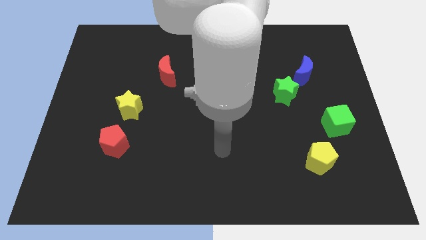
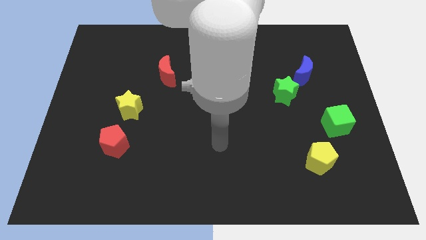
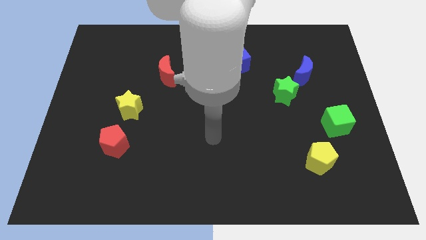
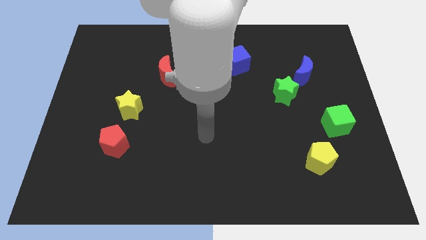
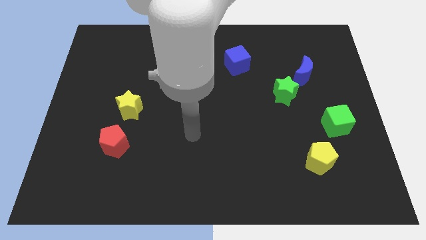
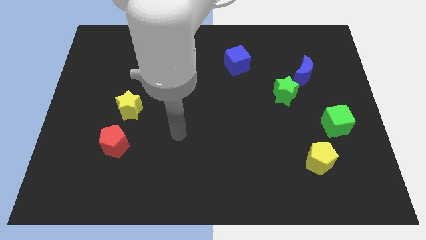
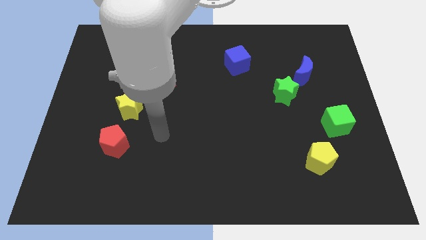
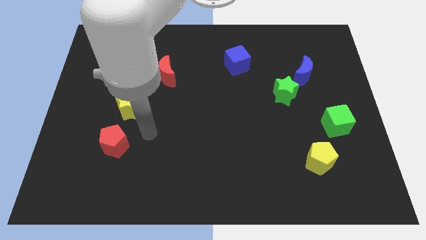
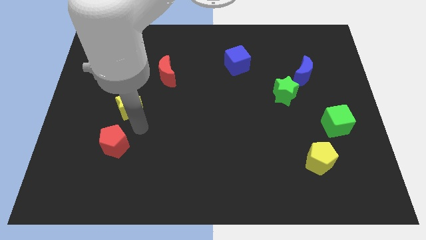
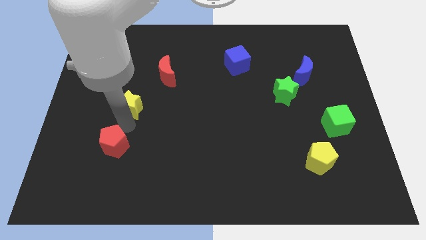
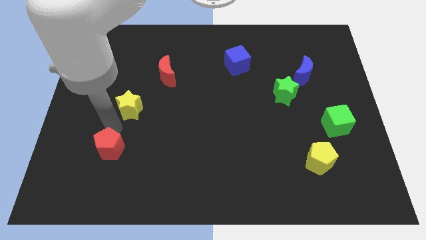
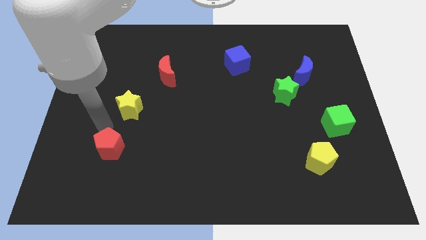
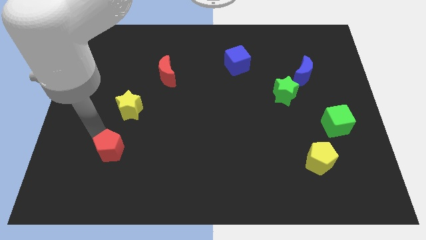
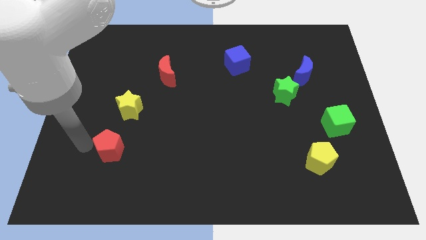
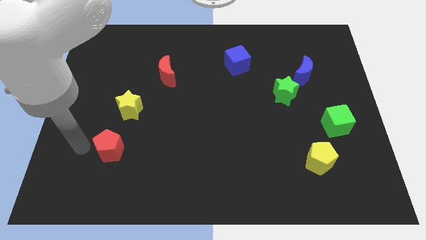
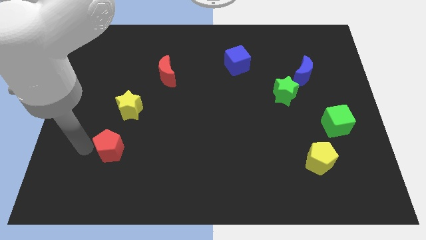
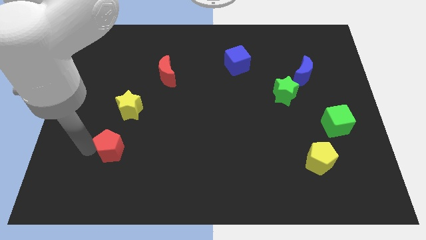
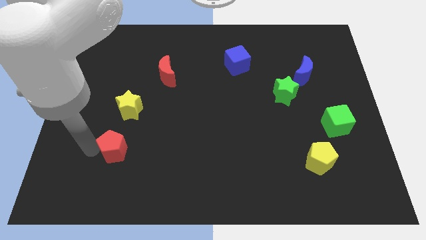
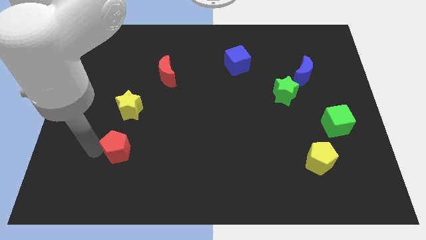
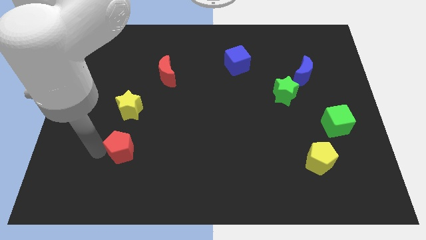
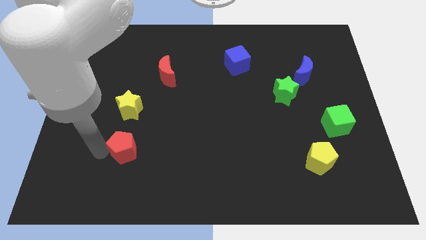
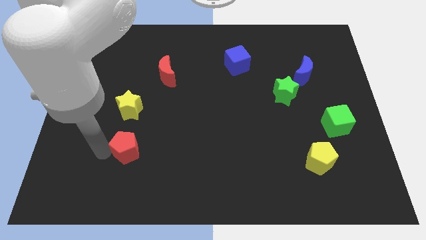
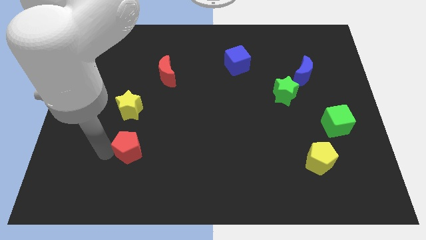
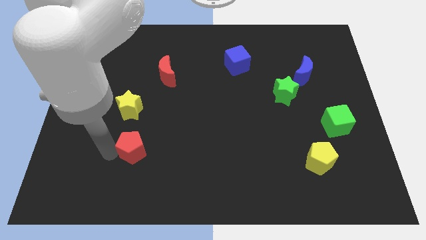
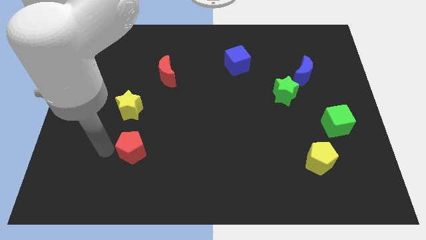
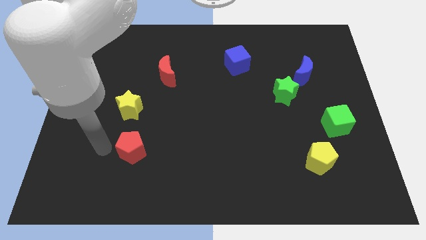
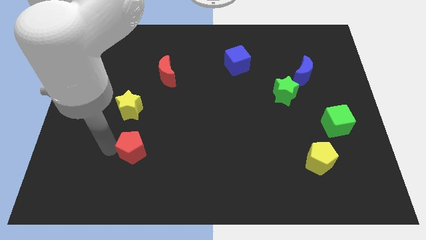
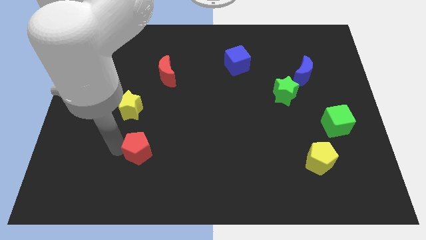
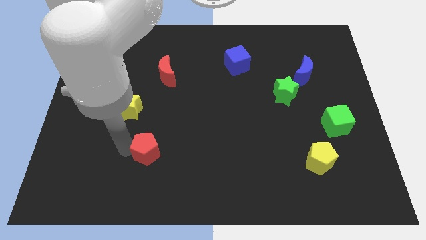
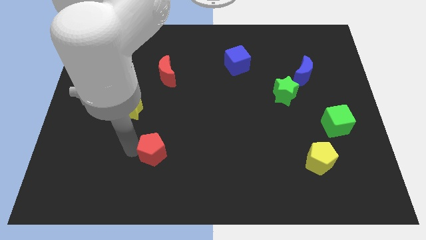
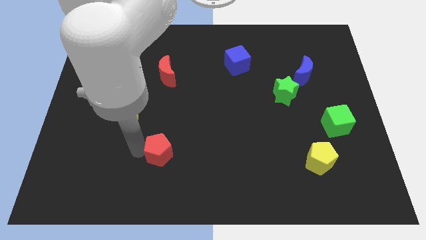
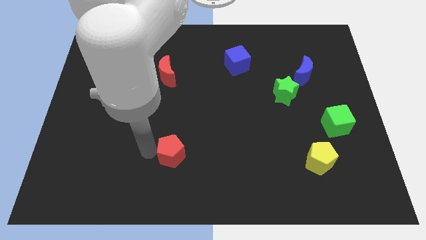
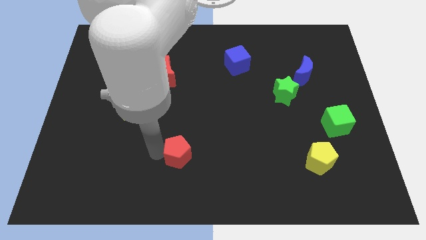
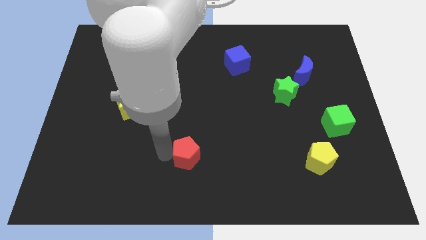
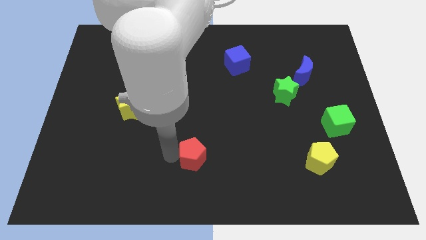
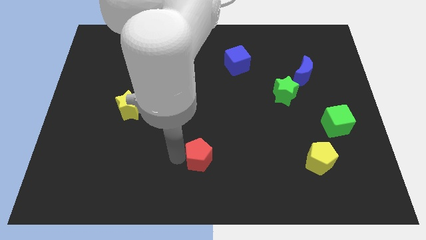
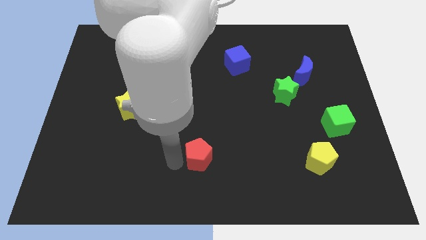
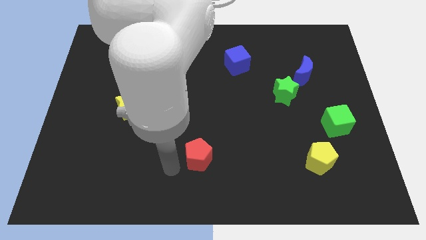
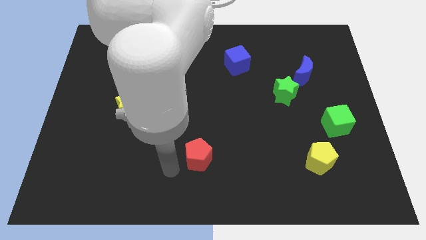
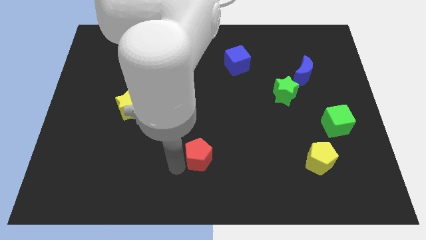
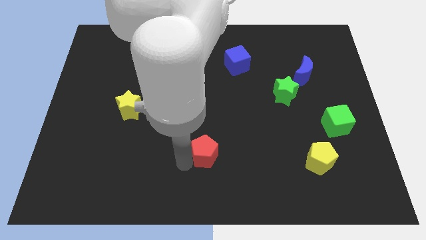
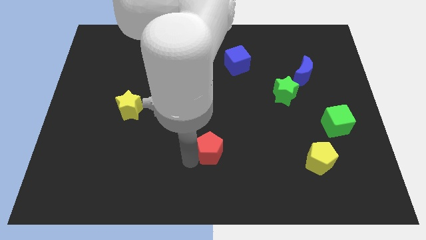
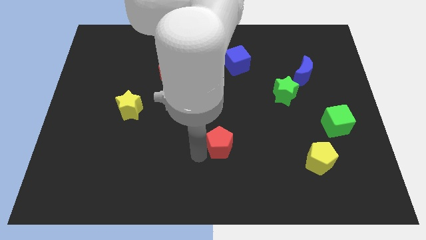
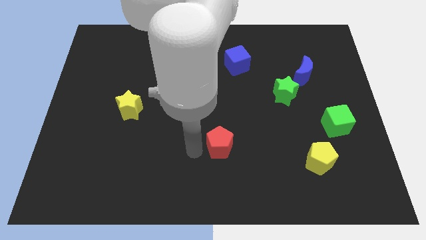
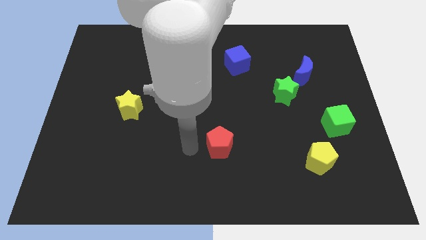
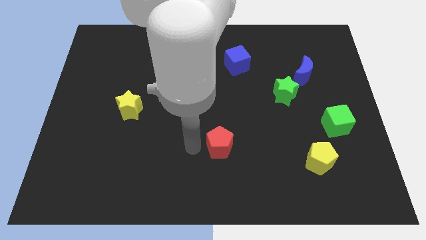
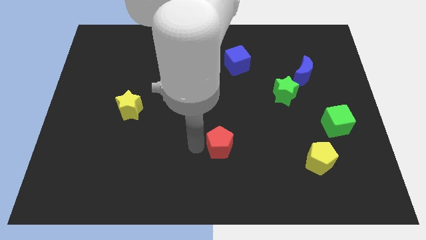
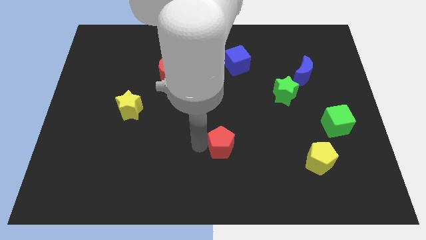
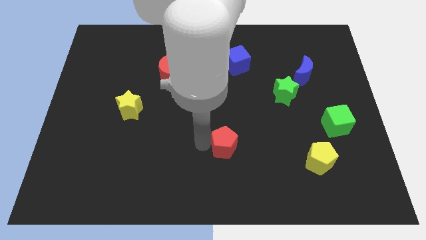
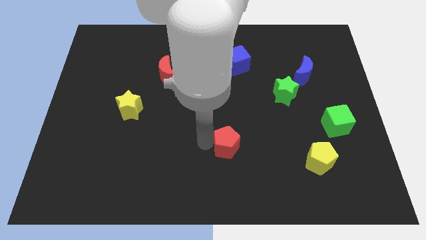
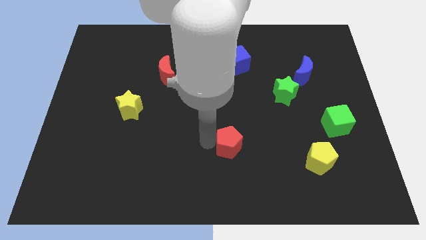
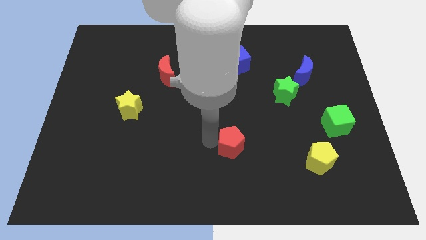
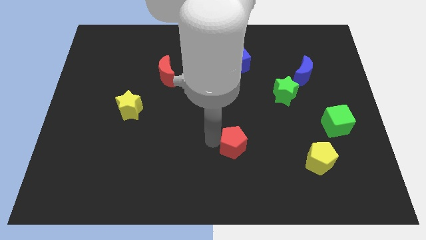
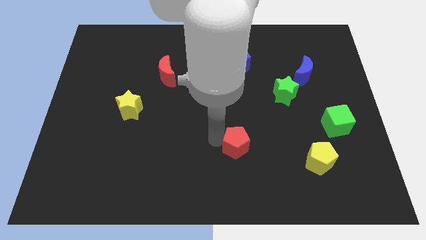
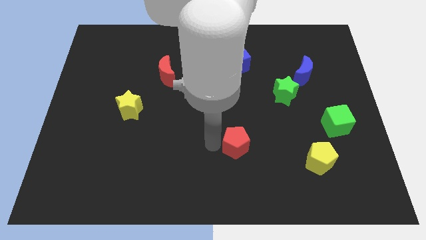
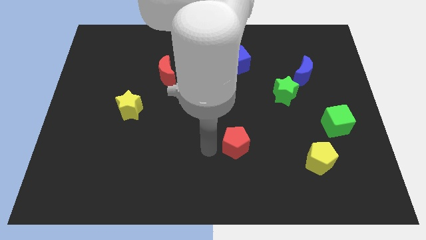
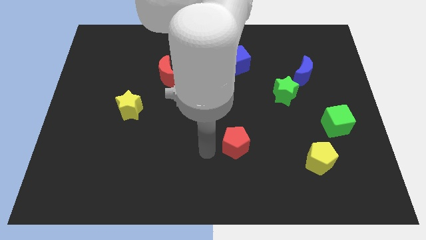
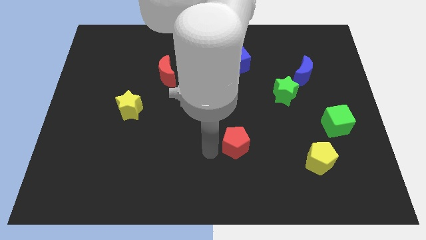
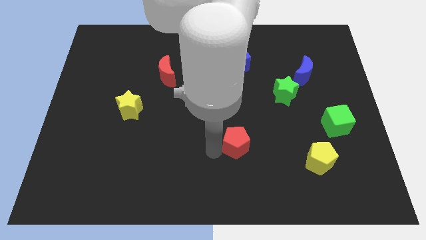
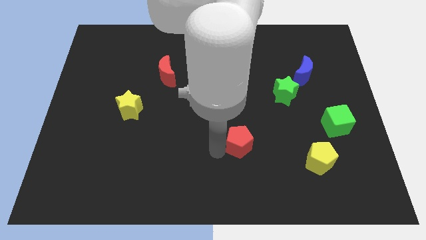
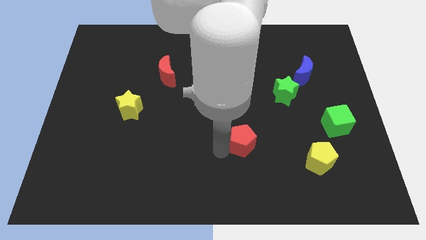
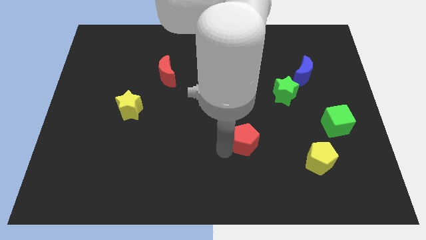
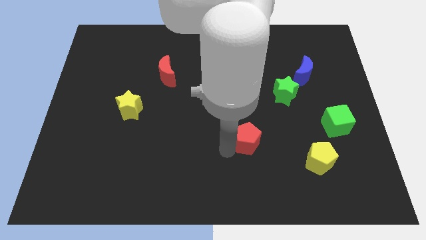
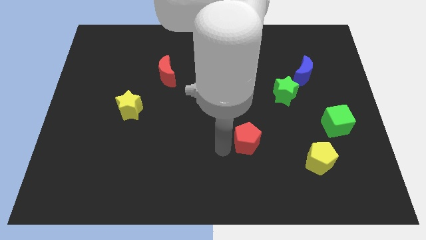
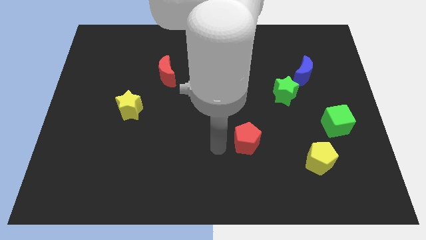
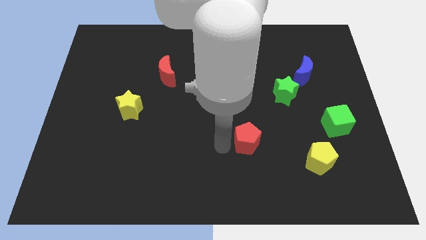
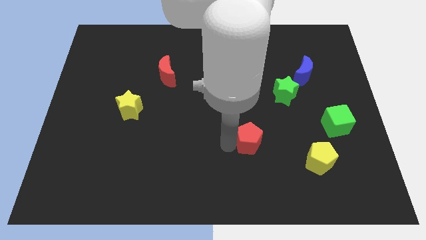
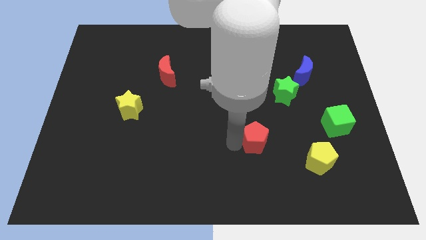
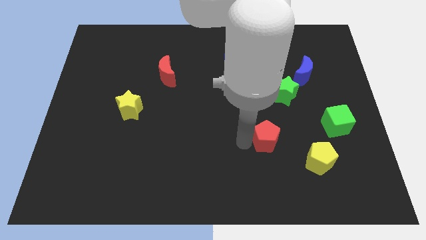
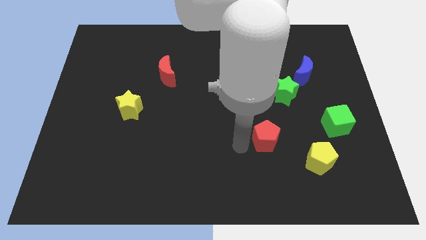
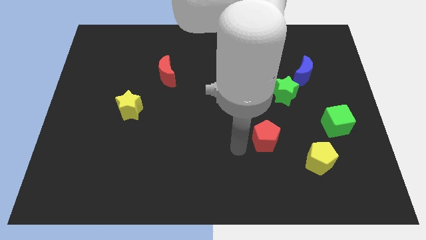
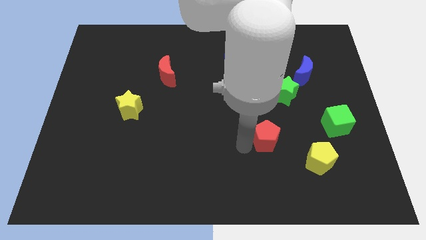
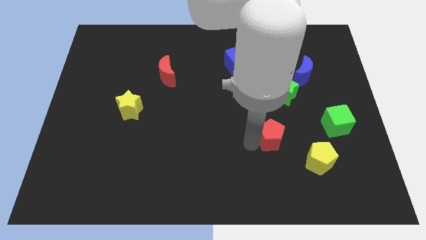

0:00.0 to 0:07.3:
push the red pentagon to the bottom side of the green star
